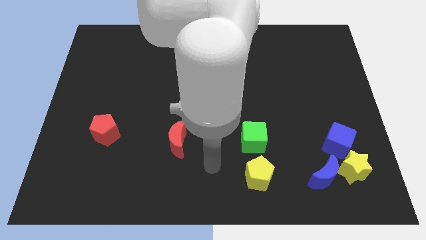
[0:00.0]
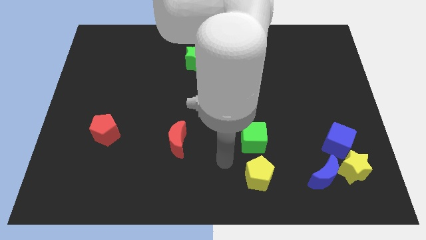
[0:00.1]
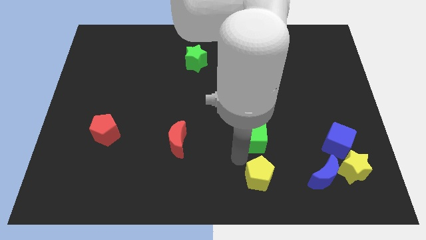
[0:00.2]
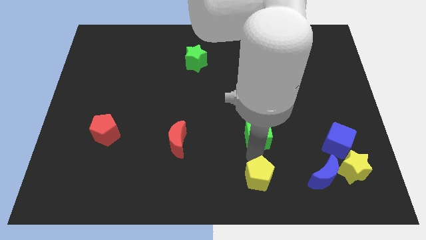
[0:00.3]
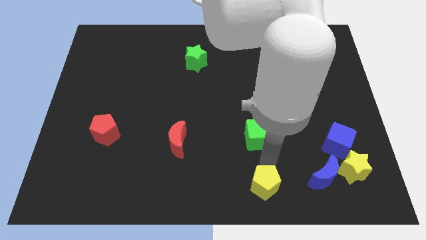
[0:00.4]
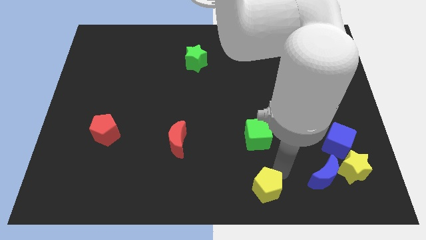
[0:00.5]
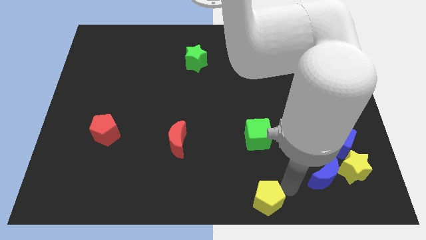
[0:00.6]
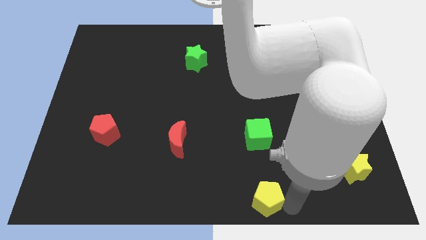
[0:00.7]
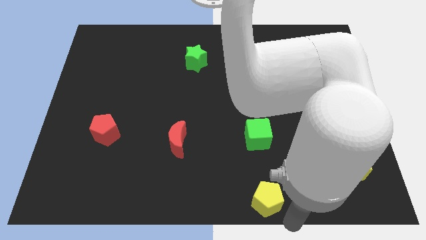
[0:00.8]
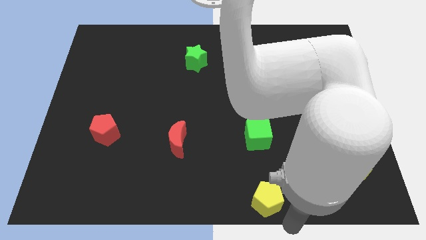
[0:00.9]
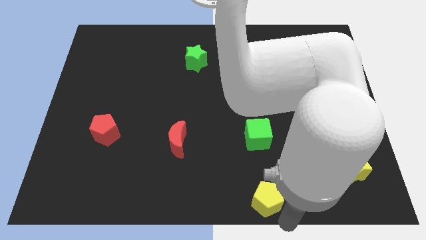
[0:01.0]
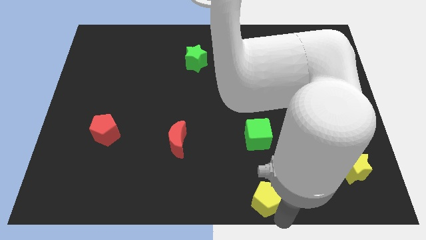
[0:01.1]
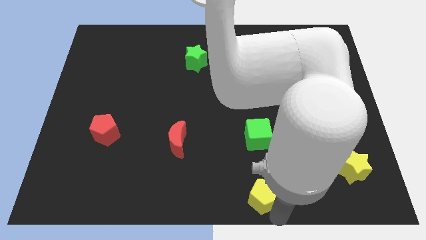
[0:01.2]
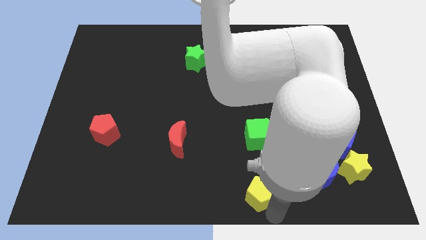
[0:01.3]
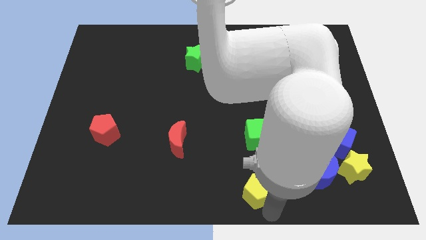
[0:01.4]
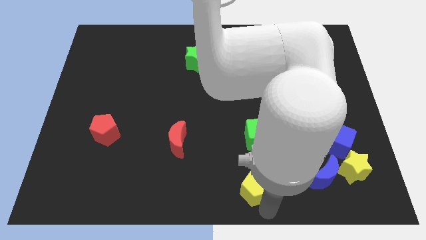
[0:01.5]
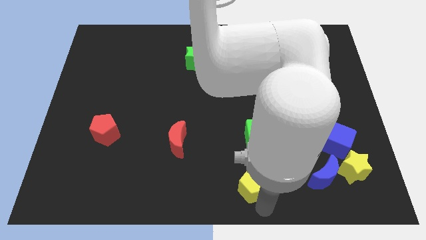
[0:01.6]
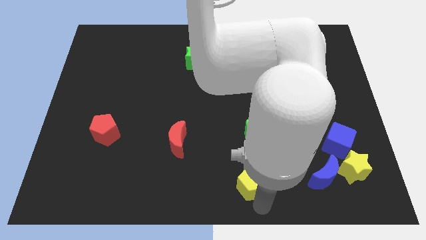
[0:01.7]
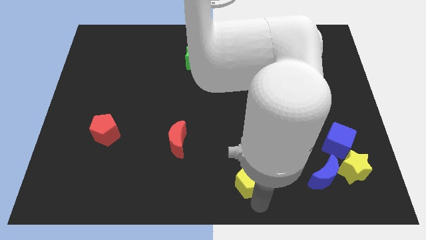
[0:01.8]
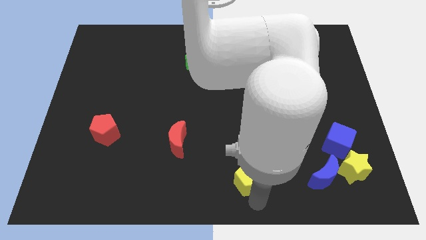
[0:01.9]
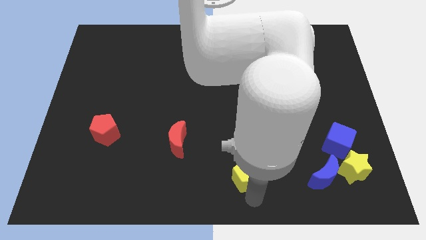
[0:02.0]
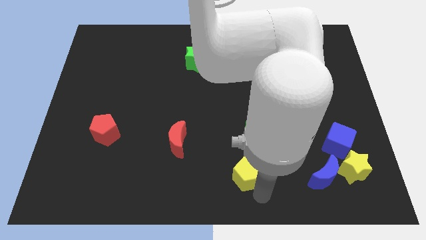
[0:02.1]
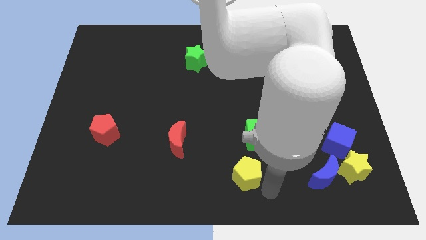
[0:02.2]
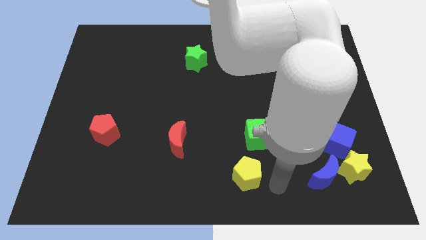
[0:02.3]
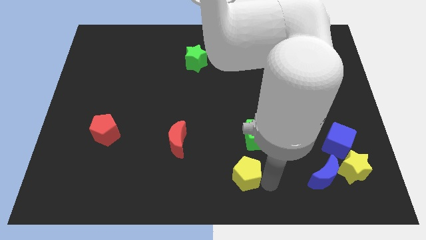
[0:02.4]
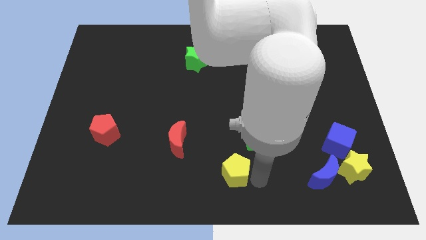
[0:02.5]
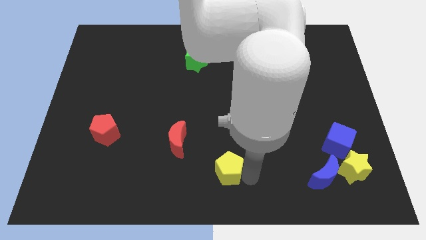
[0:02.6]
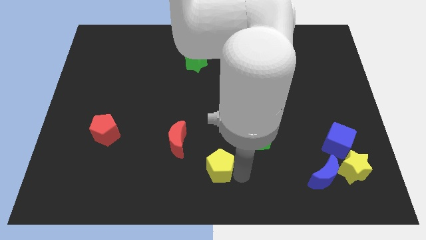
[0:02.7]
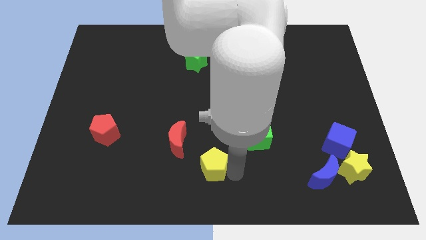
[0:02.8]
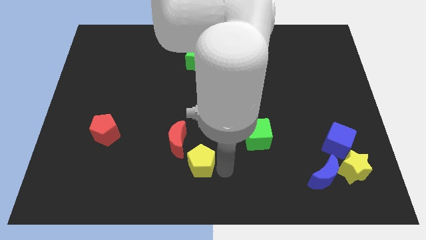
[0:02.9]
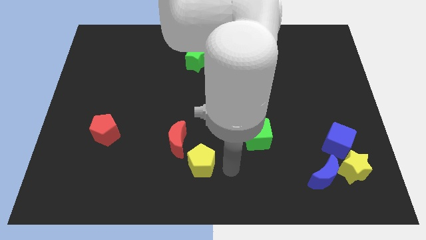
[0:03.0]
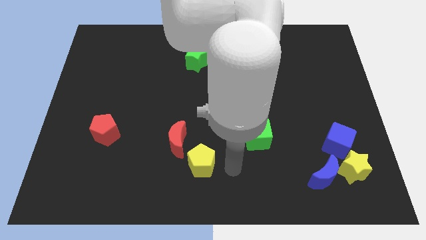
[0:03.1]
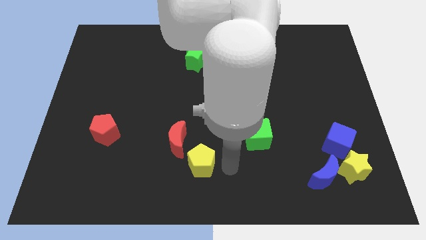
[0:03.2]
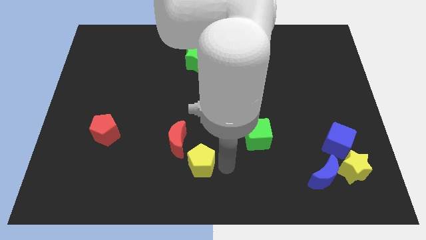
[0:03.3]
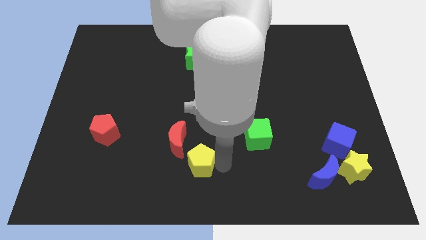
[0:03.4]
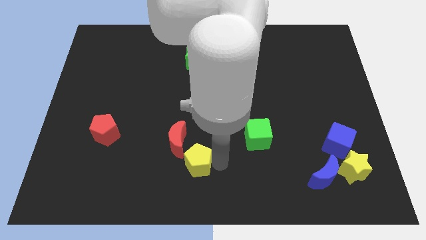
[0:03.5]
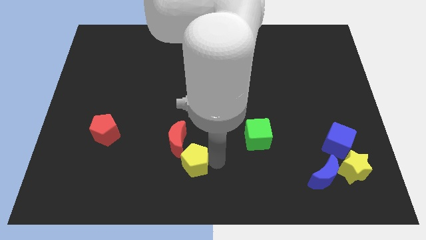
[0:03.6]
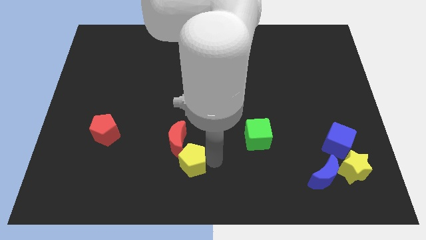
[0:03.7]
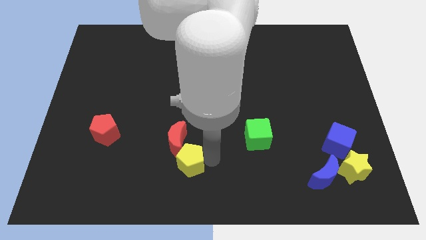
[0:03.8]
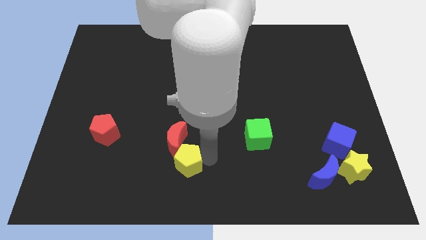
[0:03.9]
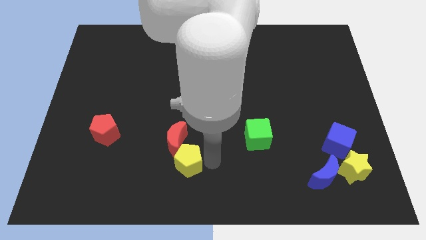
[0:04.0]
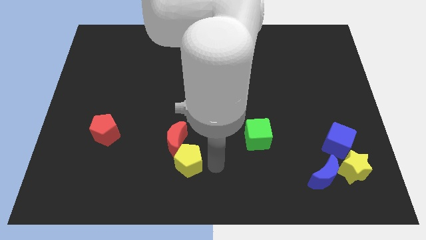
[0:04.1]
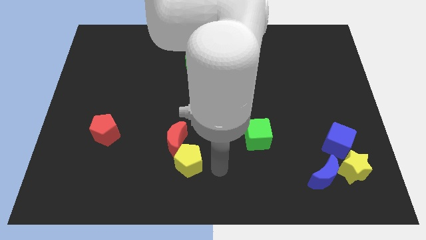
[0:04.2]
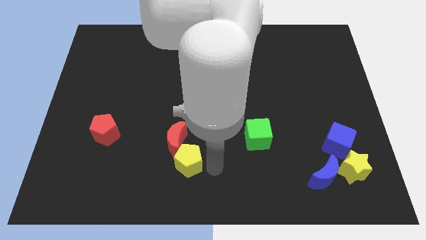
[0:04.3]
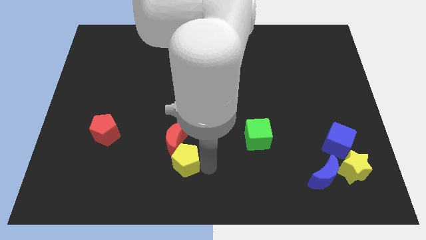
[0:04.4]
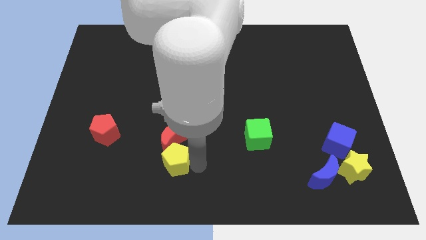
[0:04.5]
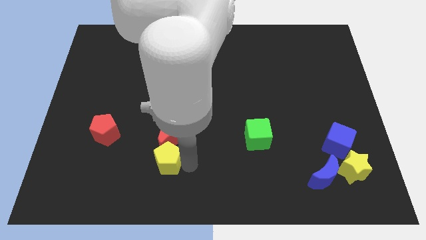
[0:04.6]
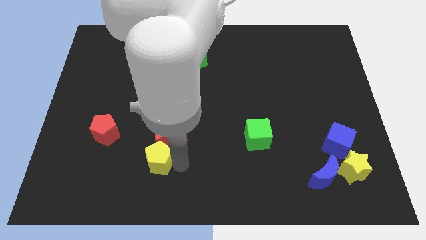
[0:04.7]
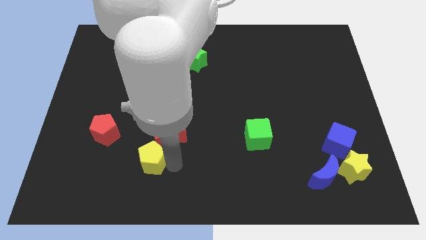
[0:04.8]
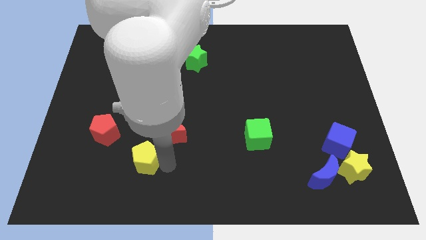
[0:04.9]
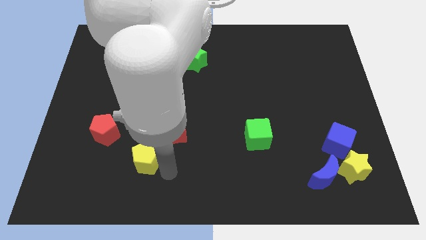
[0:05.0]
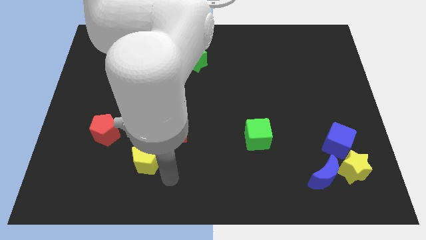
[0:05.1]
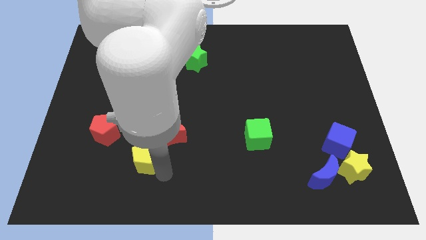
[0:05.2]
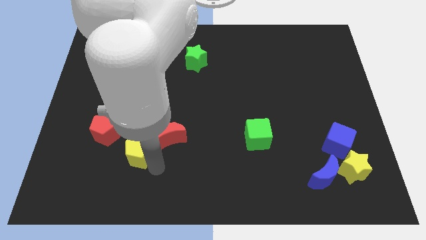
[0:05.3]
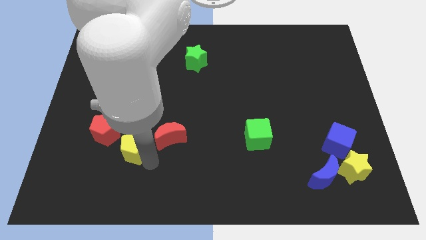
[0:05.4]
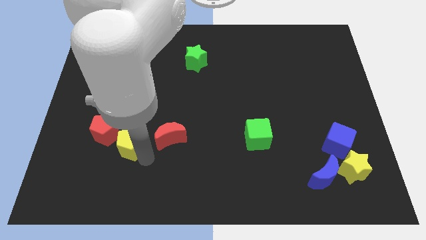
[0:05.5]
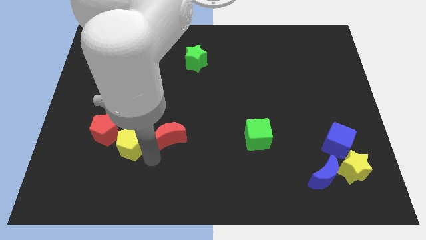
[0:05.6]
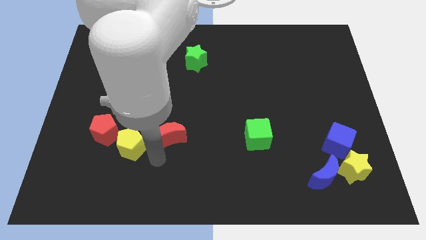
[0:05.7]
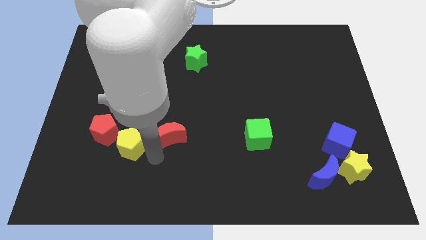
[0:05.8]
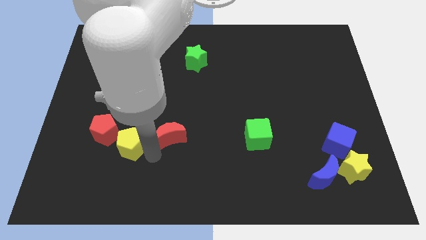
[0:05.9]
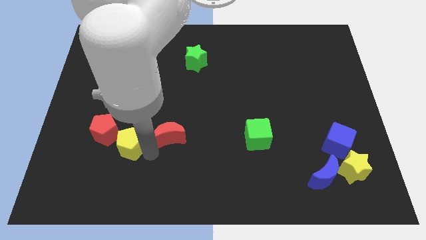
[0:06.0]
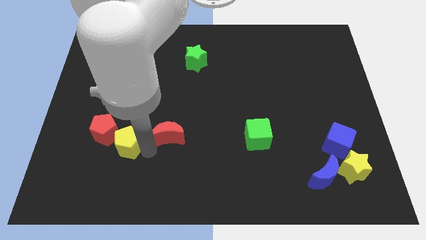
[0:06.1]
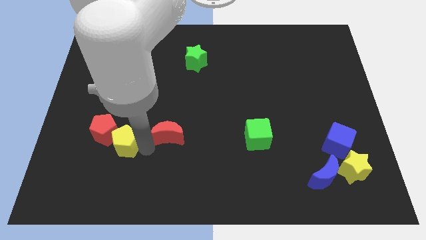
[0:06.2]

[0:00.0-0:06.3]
slide the yellow pentagon towards the red pentagon
